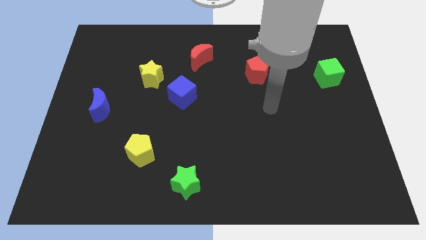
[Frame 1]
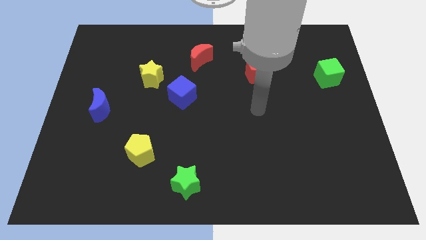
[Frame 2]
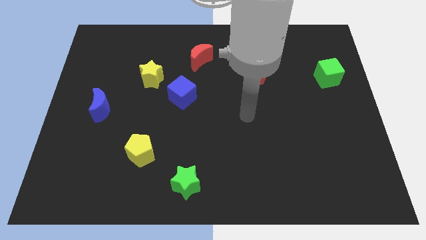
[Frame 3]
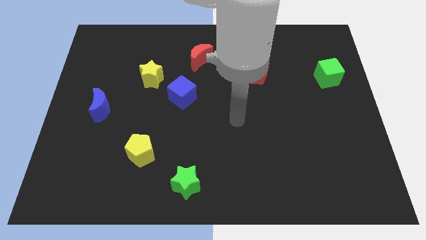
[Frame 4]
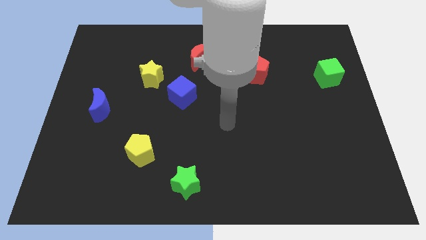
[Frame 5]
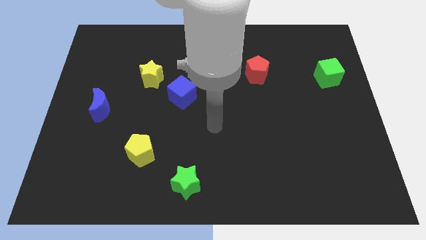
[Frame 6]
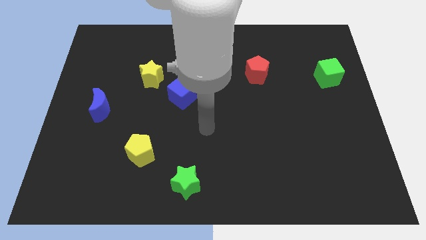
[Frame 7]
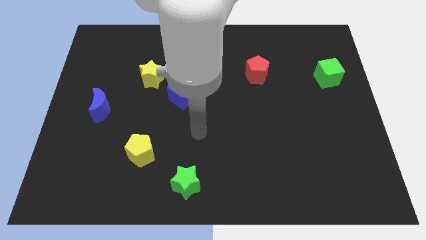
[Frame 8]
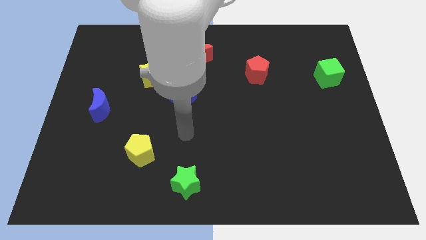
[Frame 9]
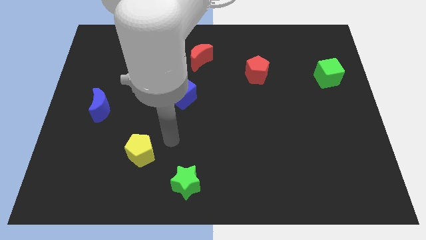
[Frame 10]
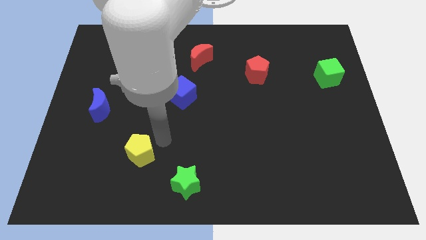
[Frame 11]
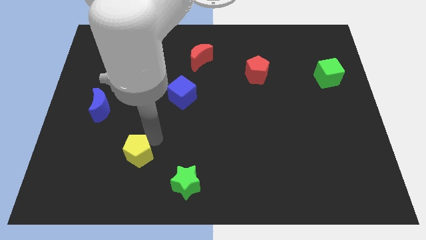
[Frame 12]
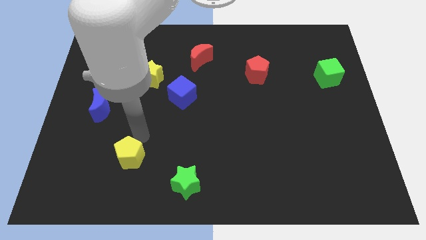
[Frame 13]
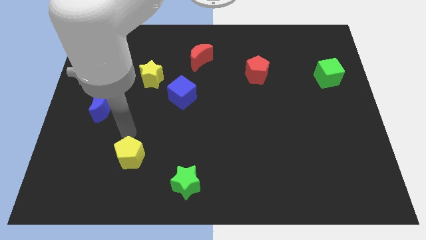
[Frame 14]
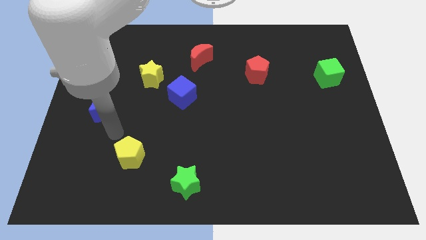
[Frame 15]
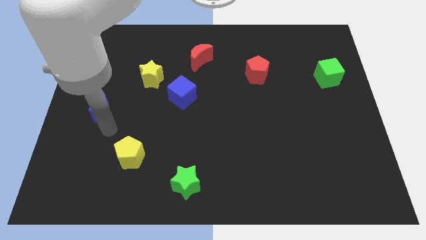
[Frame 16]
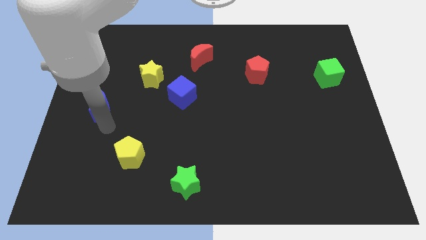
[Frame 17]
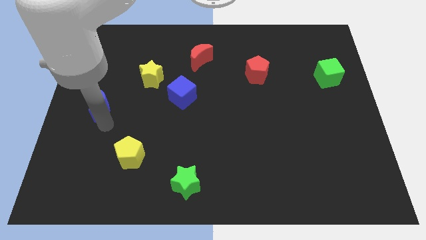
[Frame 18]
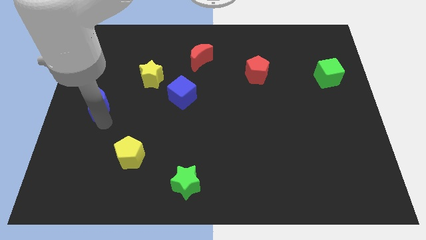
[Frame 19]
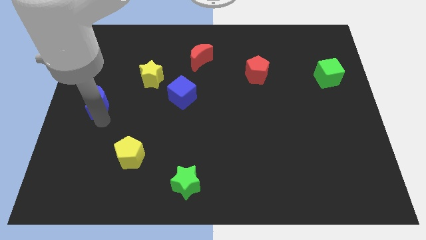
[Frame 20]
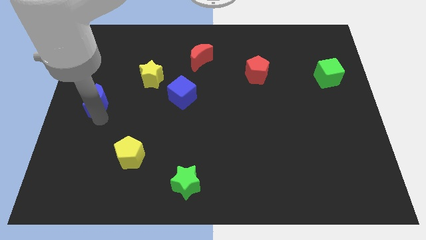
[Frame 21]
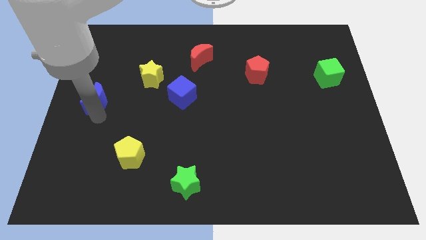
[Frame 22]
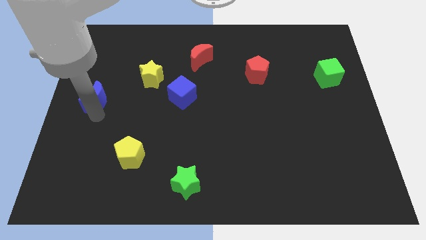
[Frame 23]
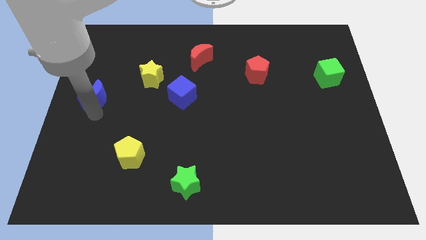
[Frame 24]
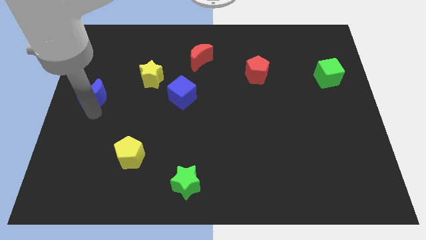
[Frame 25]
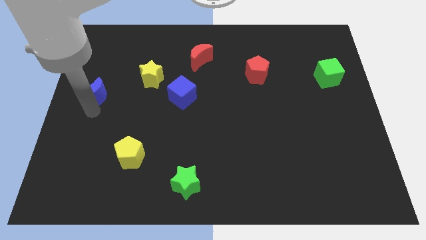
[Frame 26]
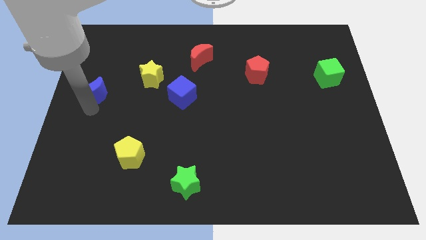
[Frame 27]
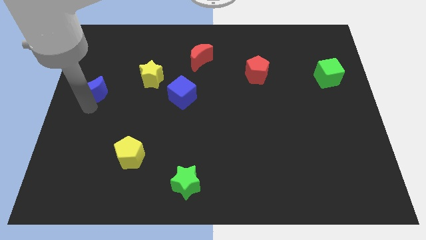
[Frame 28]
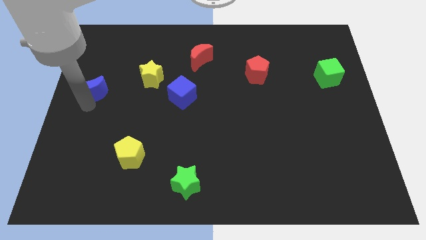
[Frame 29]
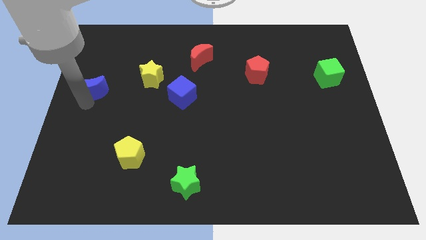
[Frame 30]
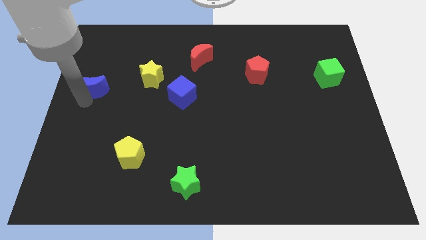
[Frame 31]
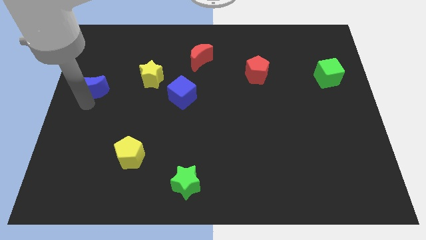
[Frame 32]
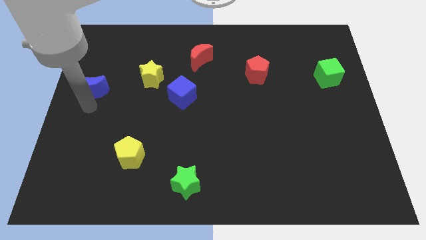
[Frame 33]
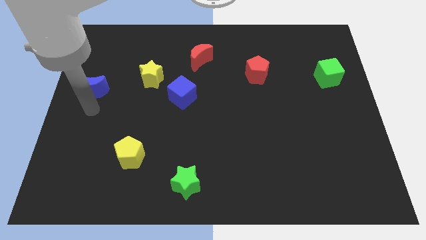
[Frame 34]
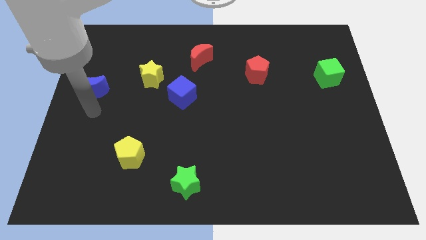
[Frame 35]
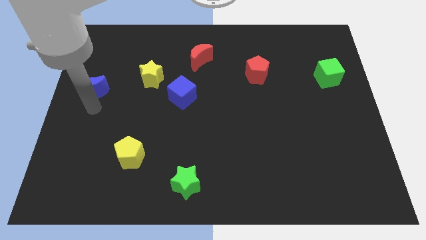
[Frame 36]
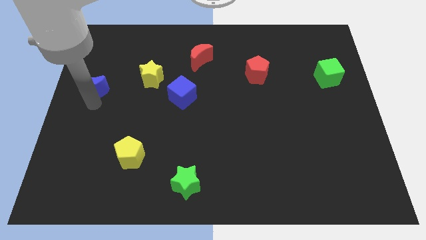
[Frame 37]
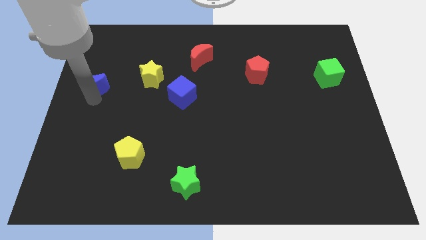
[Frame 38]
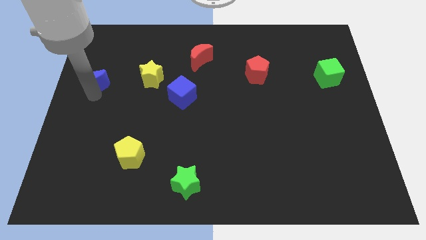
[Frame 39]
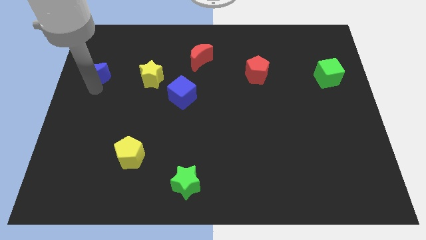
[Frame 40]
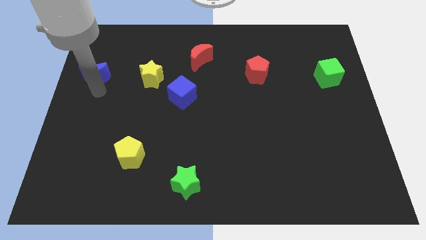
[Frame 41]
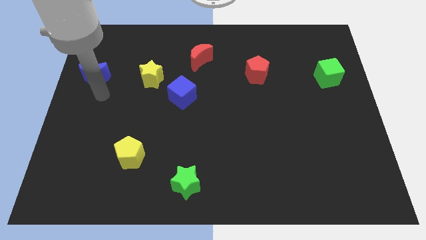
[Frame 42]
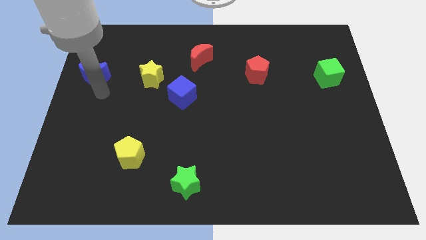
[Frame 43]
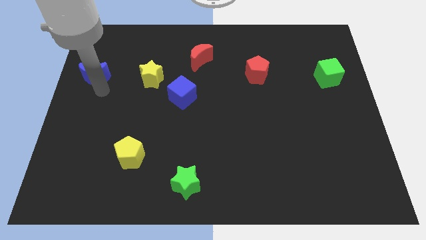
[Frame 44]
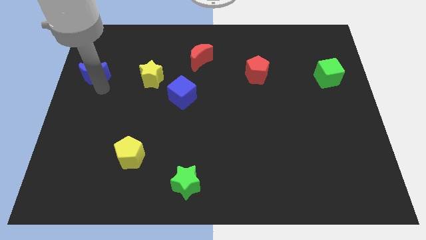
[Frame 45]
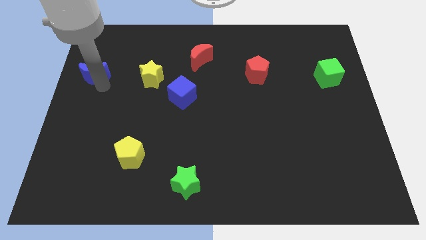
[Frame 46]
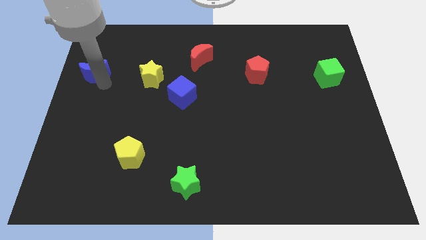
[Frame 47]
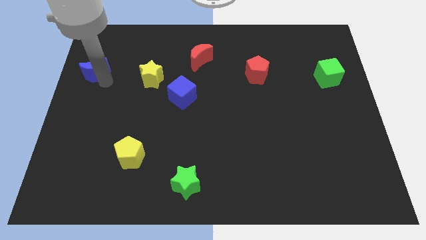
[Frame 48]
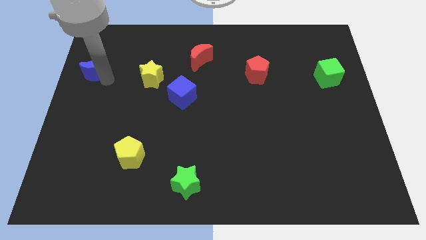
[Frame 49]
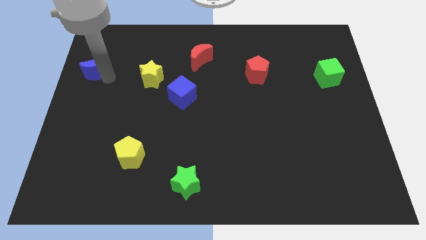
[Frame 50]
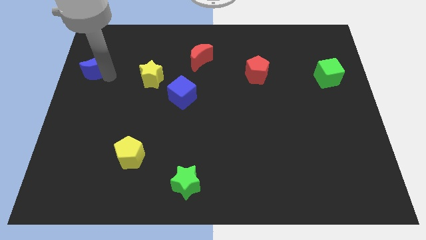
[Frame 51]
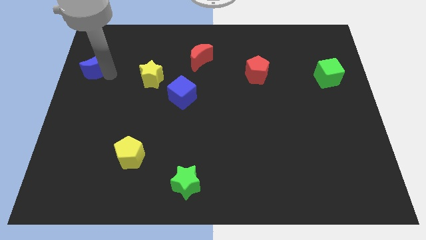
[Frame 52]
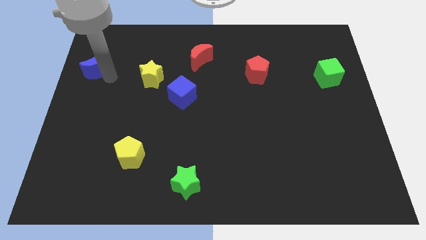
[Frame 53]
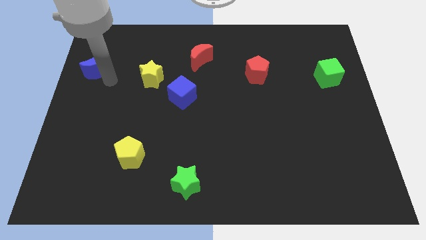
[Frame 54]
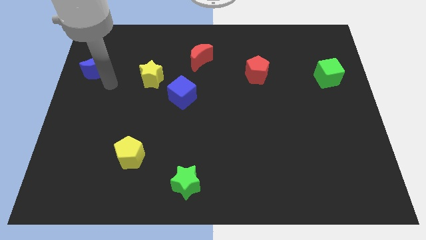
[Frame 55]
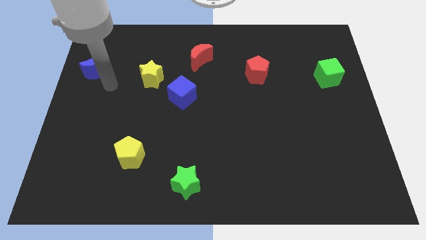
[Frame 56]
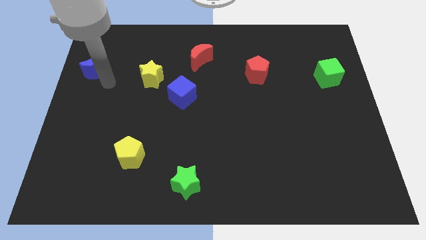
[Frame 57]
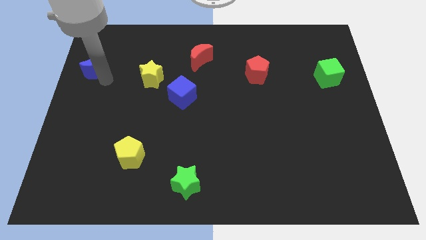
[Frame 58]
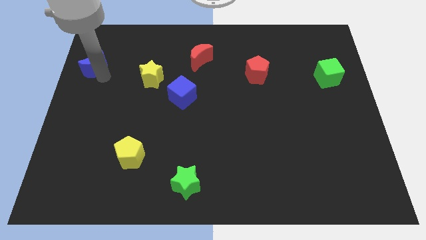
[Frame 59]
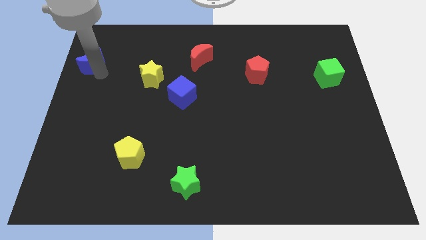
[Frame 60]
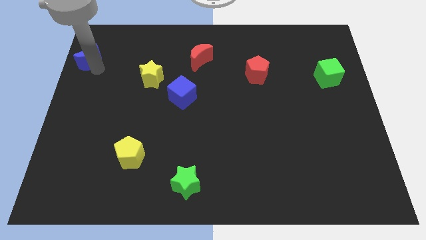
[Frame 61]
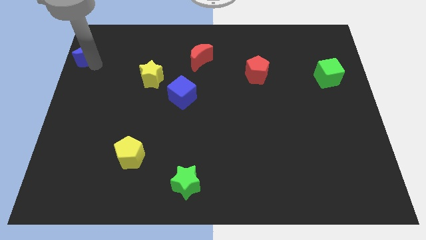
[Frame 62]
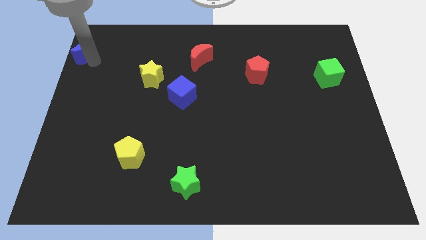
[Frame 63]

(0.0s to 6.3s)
move the blue moon to the top left corner
